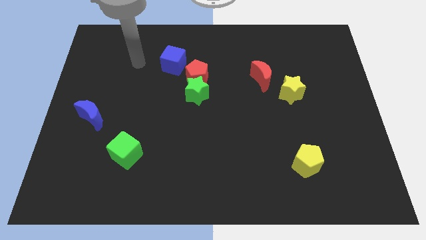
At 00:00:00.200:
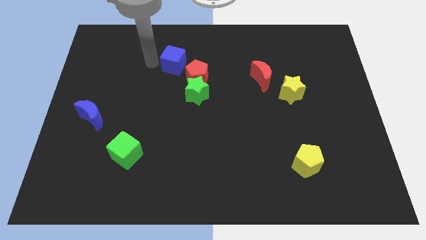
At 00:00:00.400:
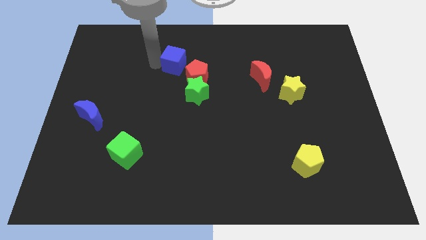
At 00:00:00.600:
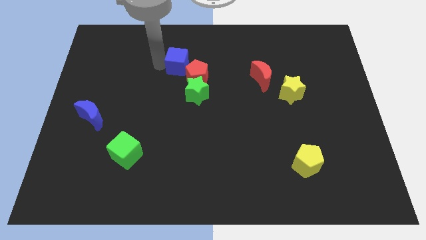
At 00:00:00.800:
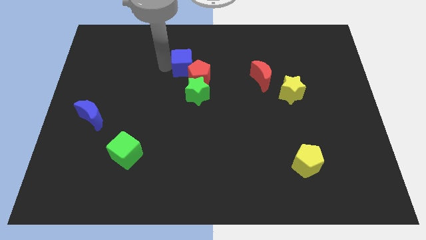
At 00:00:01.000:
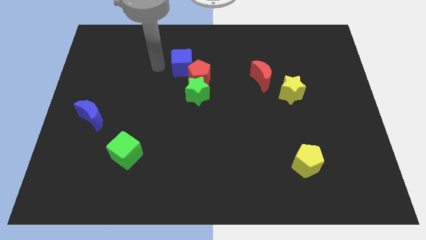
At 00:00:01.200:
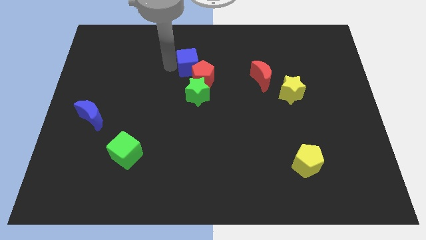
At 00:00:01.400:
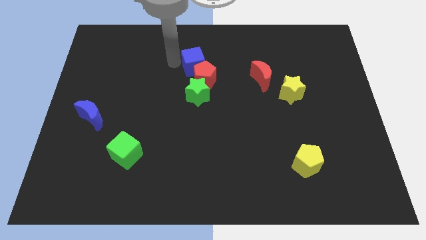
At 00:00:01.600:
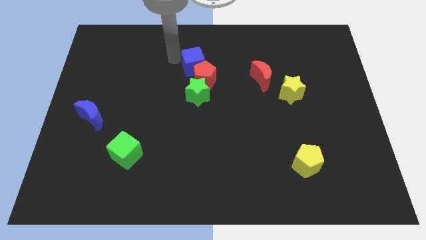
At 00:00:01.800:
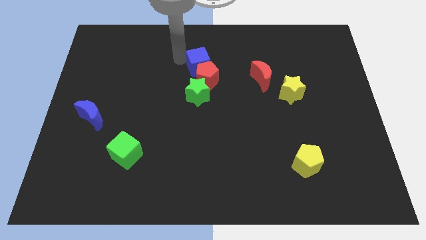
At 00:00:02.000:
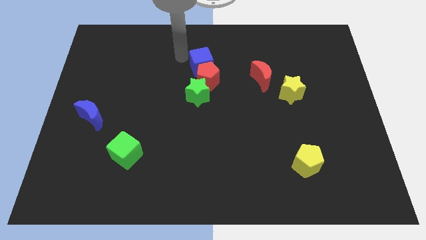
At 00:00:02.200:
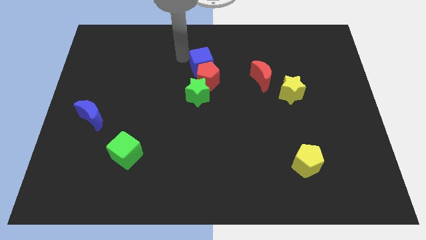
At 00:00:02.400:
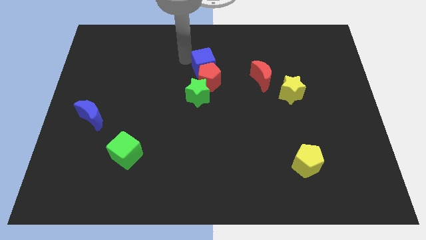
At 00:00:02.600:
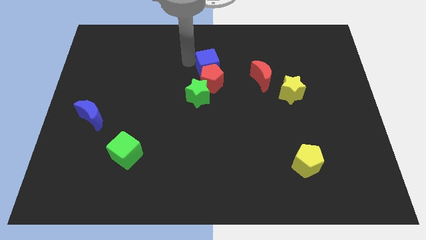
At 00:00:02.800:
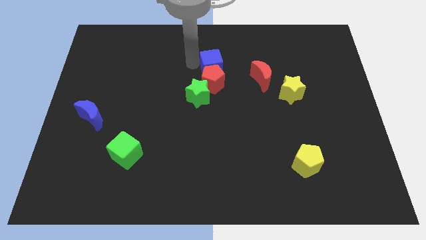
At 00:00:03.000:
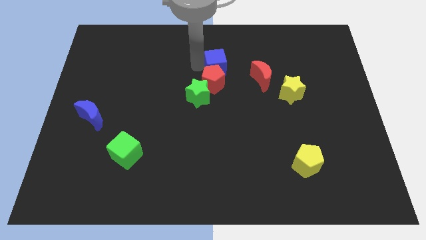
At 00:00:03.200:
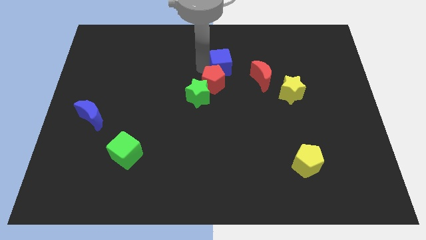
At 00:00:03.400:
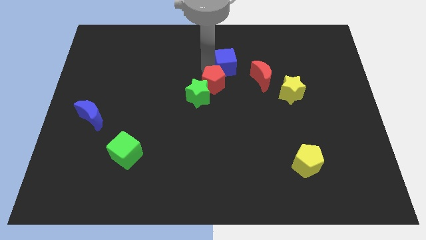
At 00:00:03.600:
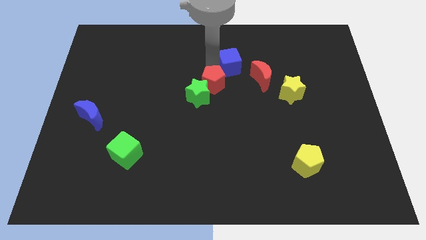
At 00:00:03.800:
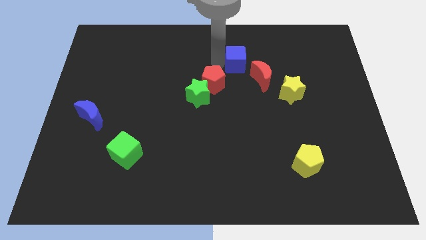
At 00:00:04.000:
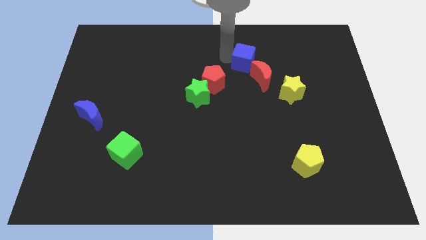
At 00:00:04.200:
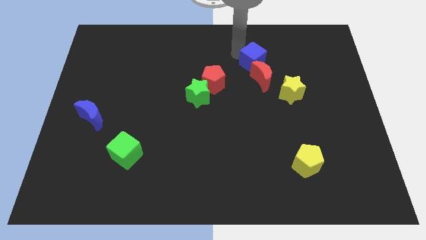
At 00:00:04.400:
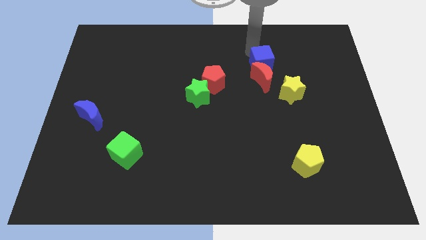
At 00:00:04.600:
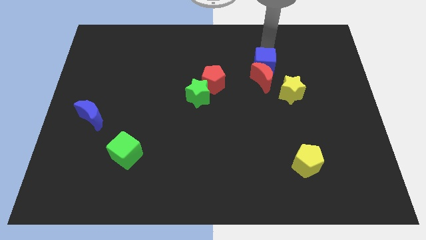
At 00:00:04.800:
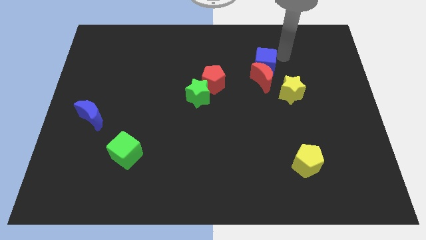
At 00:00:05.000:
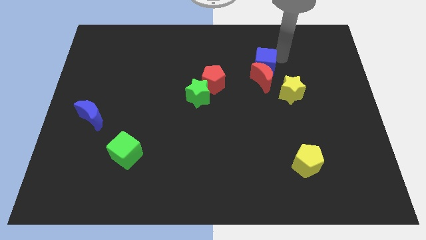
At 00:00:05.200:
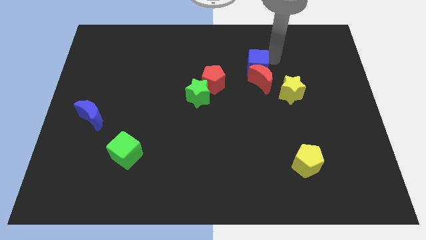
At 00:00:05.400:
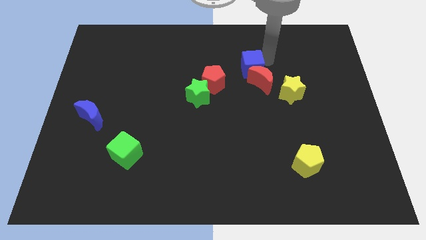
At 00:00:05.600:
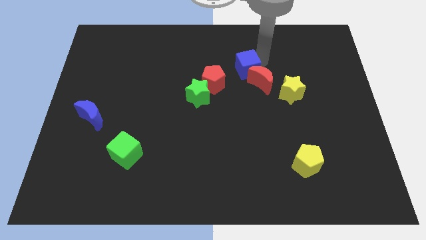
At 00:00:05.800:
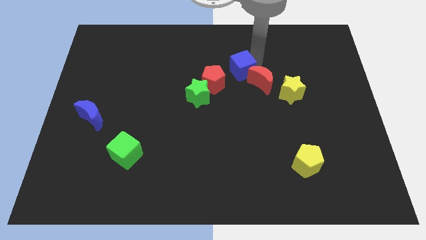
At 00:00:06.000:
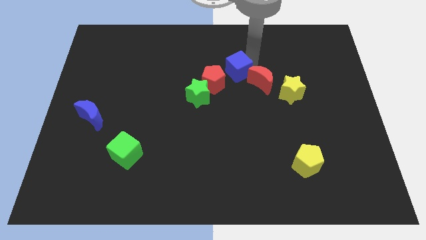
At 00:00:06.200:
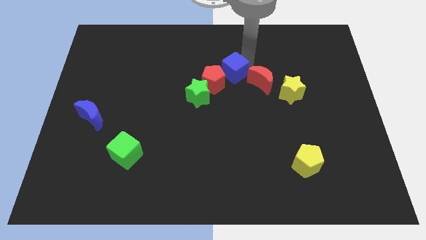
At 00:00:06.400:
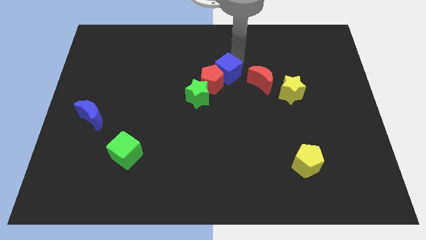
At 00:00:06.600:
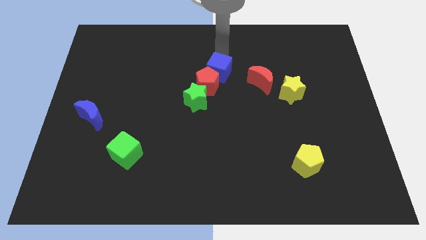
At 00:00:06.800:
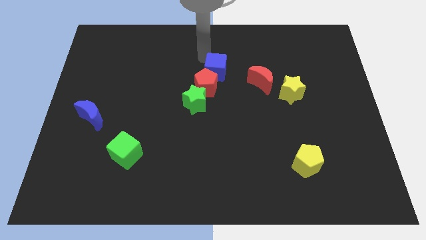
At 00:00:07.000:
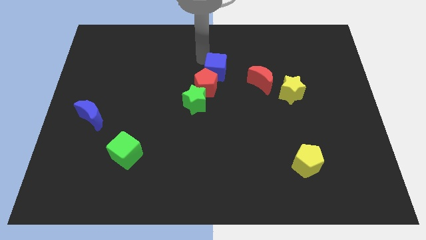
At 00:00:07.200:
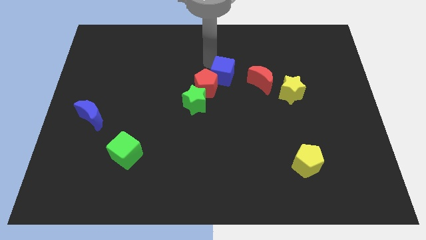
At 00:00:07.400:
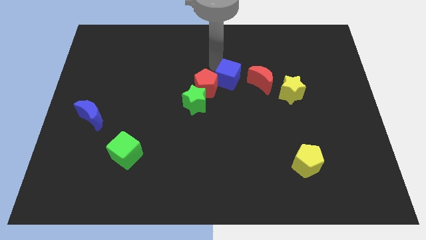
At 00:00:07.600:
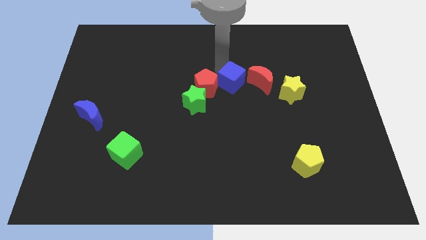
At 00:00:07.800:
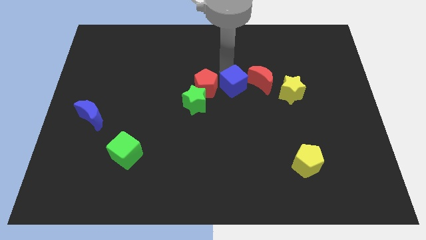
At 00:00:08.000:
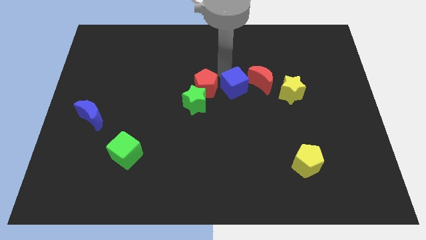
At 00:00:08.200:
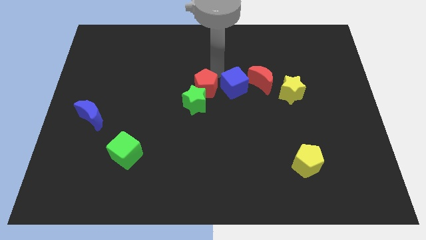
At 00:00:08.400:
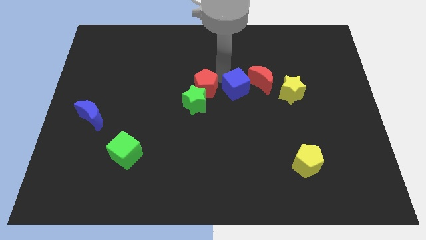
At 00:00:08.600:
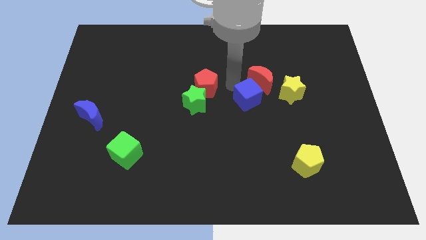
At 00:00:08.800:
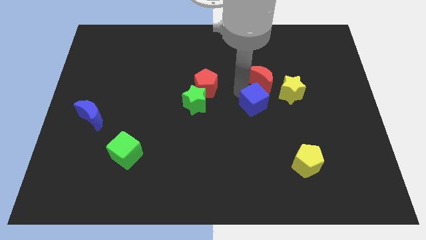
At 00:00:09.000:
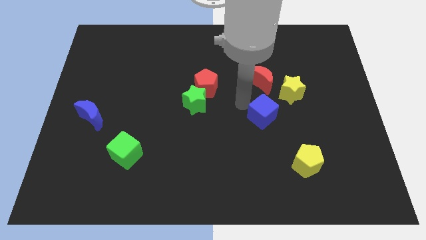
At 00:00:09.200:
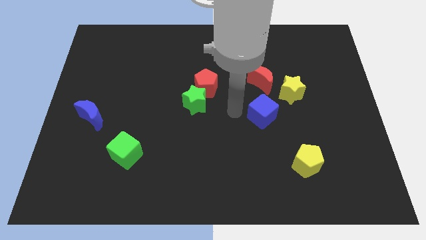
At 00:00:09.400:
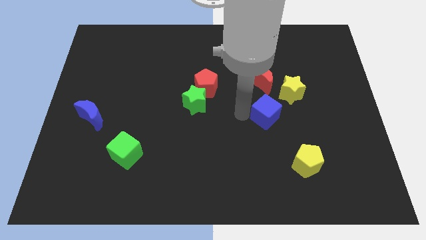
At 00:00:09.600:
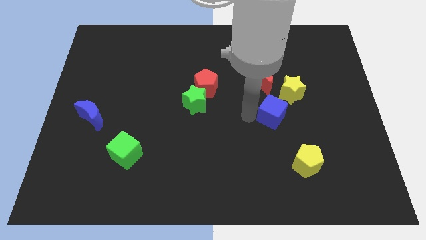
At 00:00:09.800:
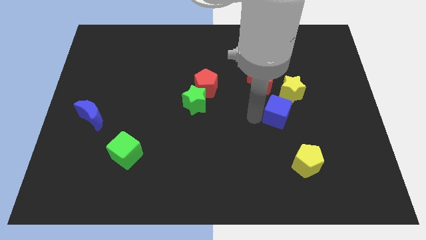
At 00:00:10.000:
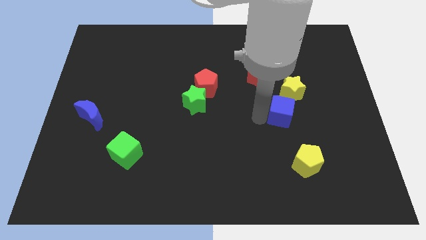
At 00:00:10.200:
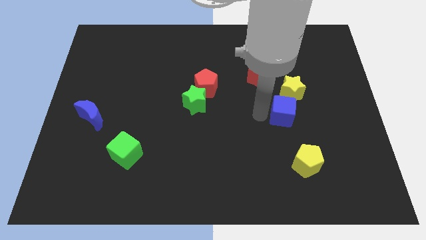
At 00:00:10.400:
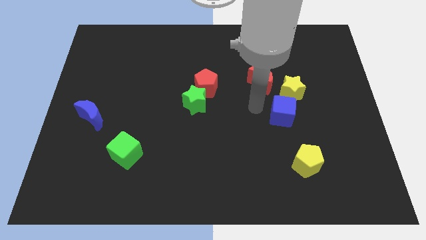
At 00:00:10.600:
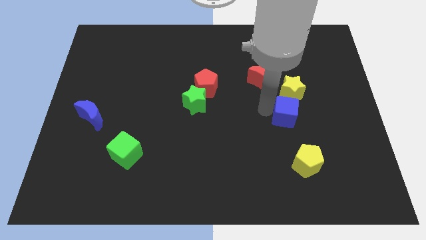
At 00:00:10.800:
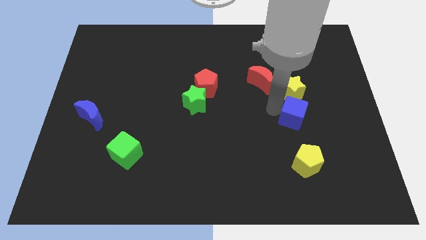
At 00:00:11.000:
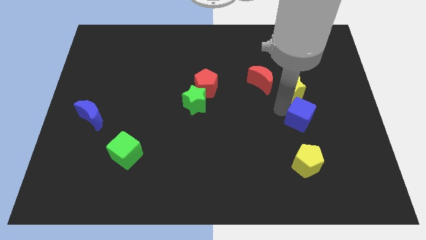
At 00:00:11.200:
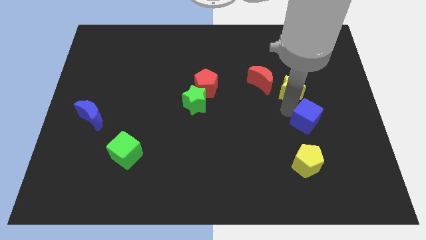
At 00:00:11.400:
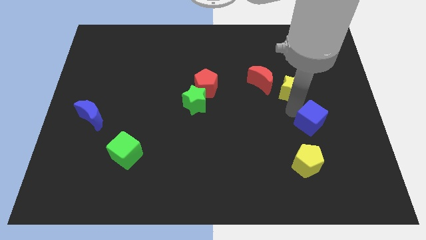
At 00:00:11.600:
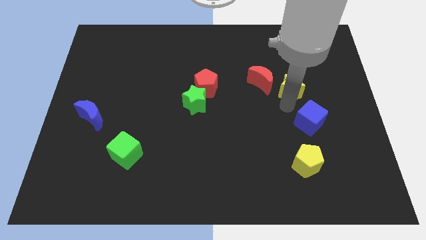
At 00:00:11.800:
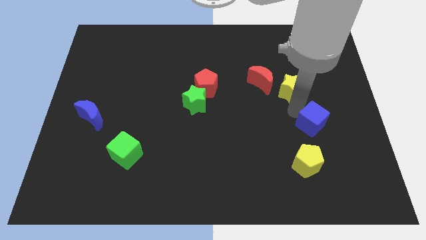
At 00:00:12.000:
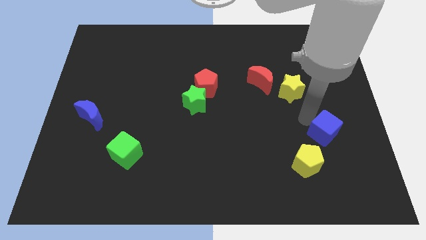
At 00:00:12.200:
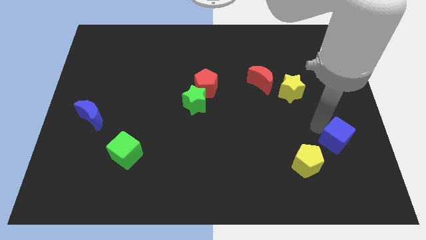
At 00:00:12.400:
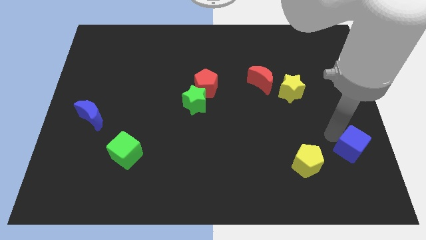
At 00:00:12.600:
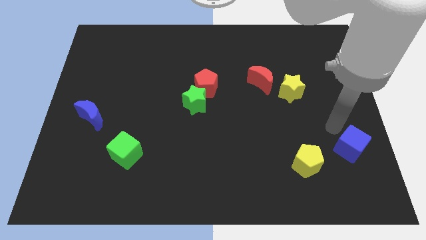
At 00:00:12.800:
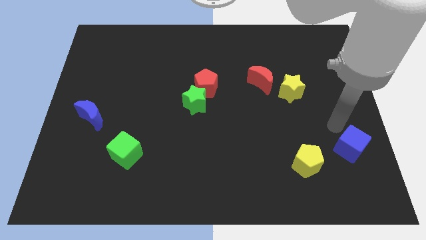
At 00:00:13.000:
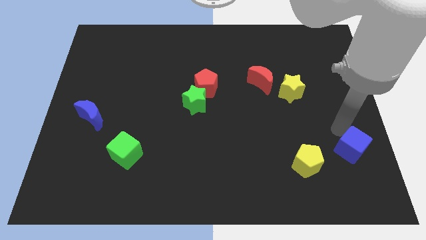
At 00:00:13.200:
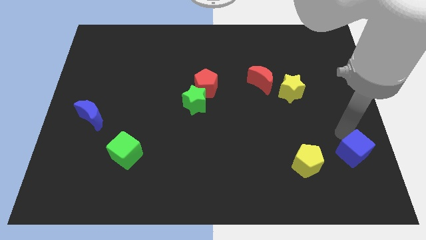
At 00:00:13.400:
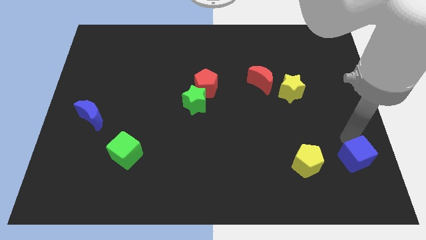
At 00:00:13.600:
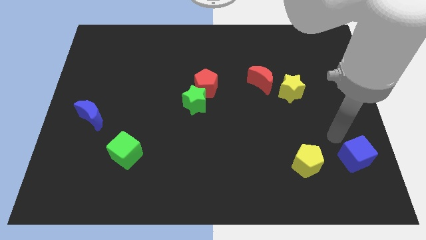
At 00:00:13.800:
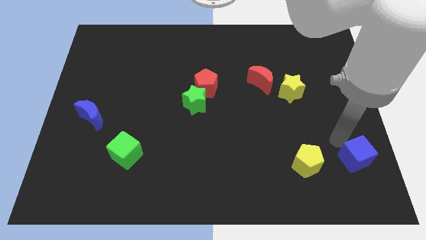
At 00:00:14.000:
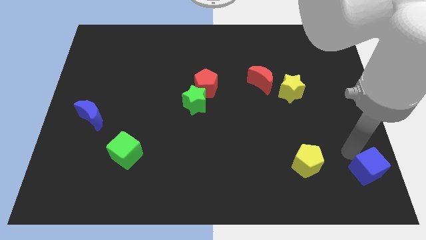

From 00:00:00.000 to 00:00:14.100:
put the blue cube to the bottom right corner
